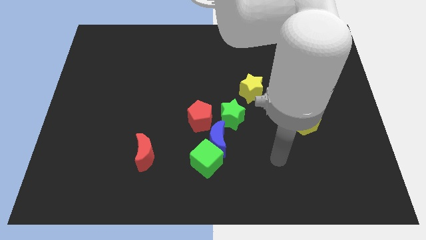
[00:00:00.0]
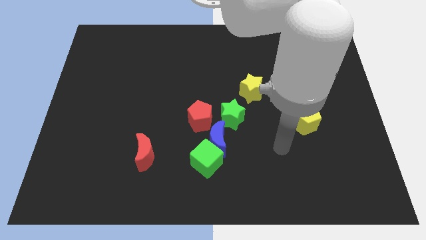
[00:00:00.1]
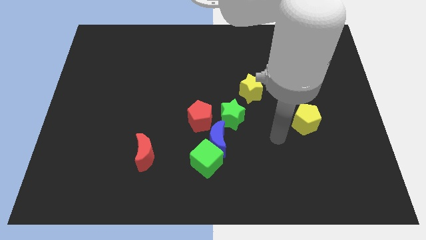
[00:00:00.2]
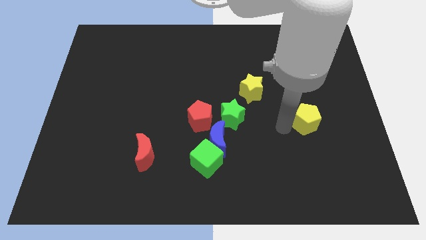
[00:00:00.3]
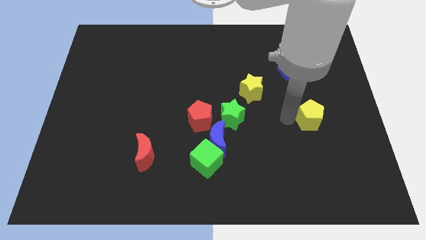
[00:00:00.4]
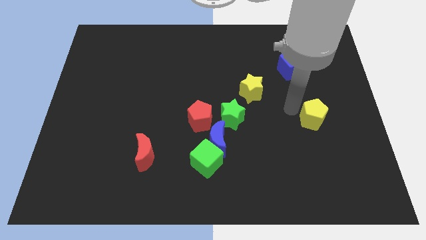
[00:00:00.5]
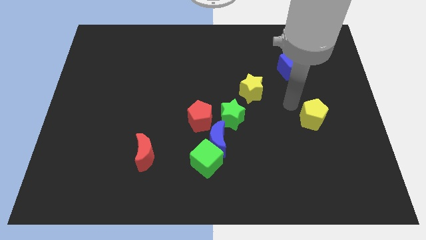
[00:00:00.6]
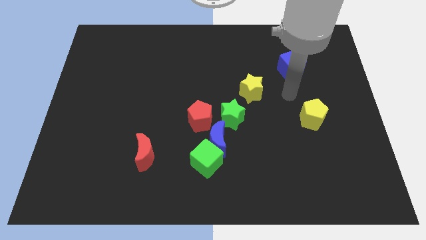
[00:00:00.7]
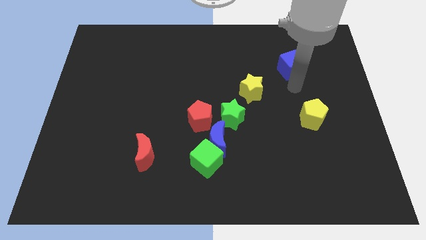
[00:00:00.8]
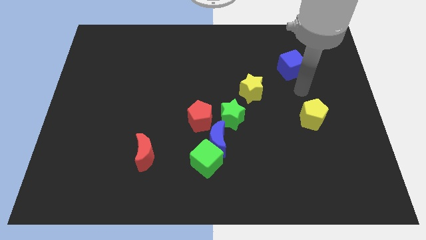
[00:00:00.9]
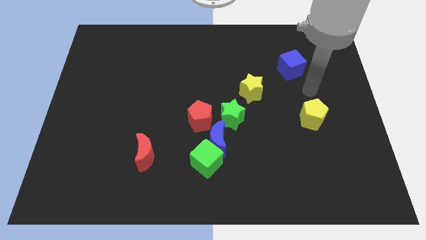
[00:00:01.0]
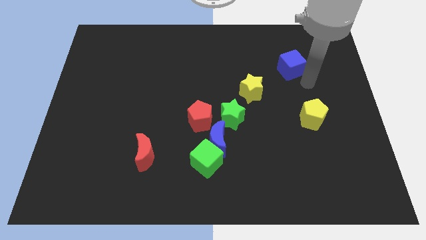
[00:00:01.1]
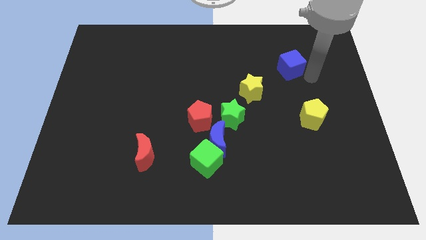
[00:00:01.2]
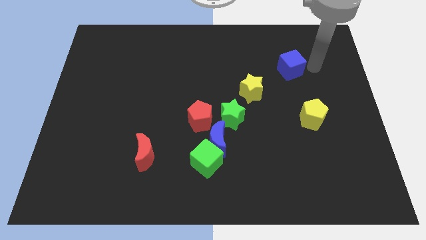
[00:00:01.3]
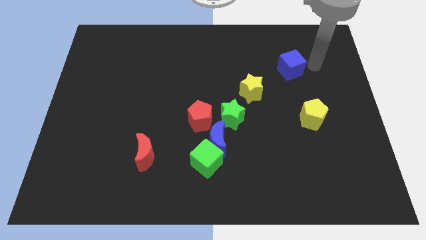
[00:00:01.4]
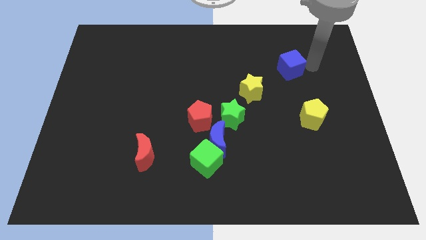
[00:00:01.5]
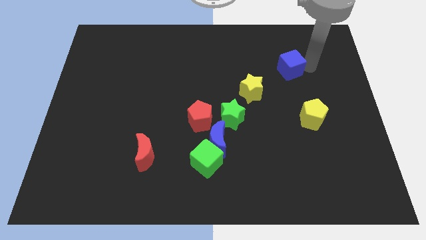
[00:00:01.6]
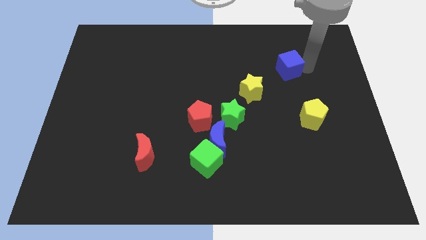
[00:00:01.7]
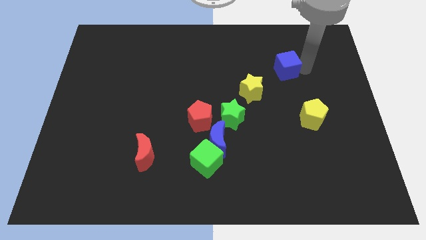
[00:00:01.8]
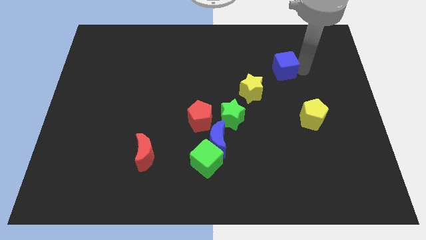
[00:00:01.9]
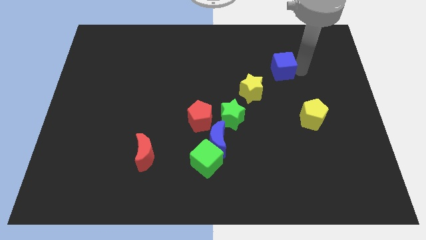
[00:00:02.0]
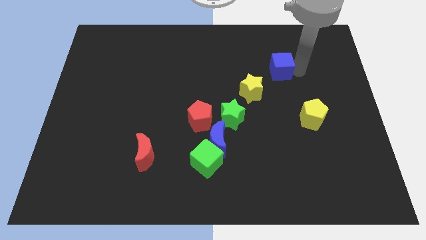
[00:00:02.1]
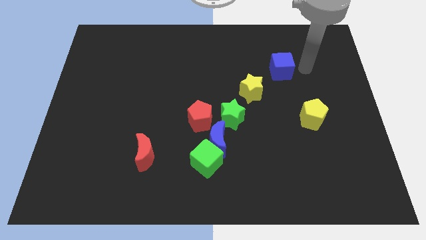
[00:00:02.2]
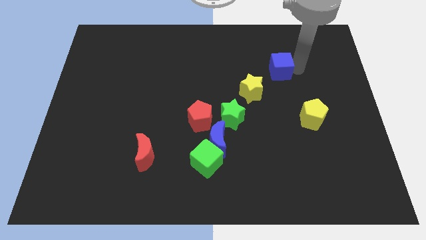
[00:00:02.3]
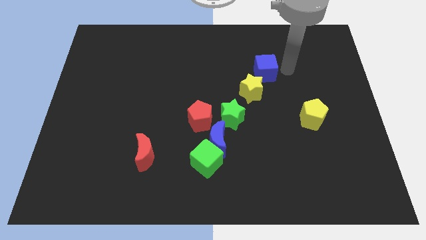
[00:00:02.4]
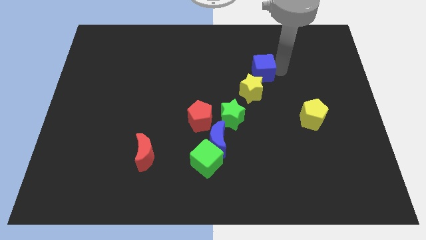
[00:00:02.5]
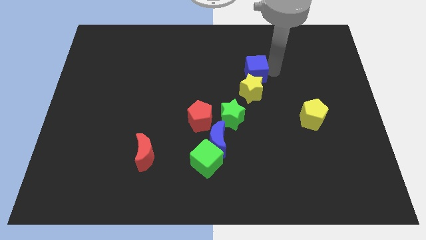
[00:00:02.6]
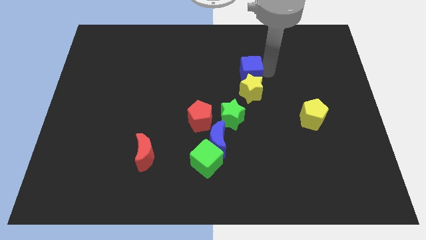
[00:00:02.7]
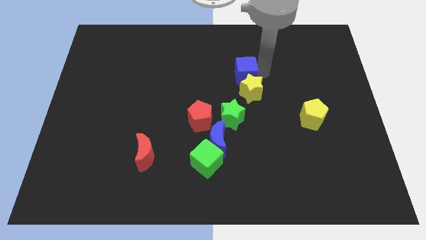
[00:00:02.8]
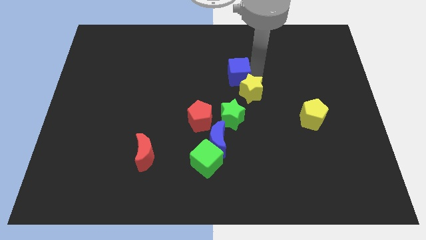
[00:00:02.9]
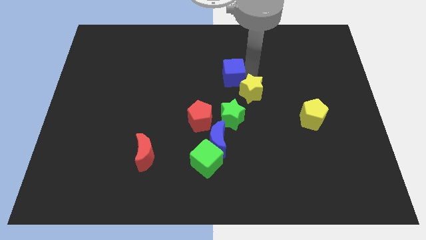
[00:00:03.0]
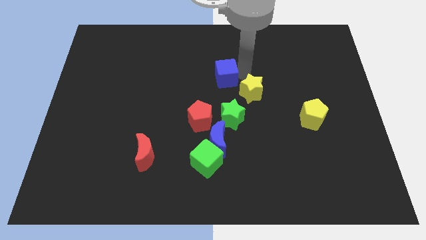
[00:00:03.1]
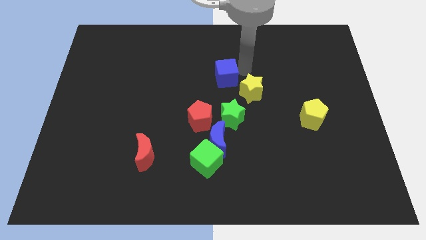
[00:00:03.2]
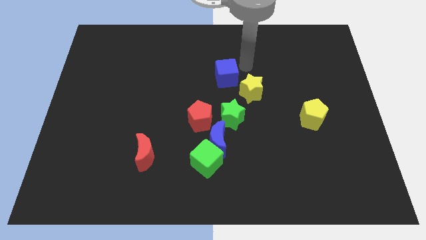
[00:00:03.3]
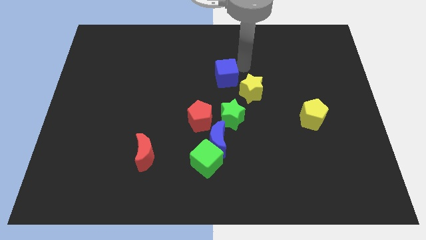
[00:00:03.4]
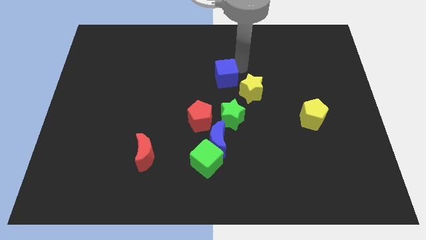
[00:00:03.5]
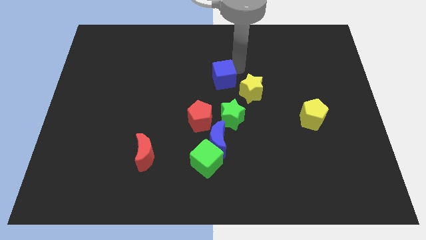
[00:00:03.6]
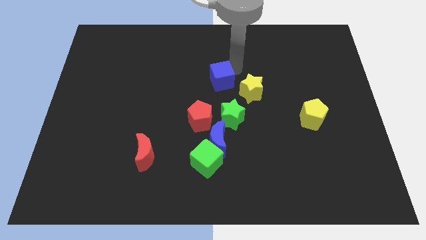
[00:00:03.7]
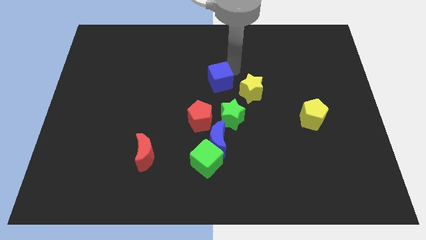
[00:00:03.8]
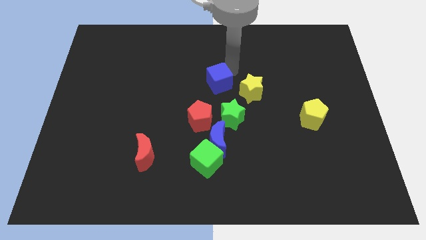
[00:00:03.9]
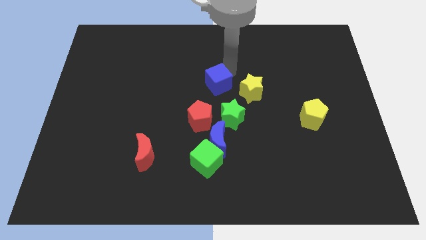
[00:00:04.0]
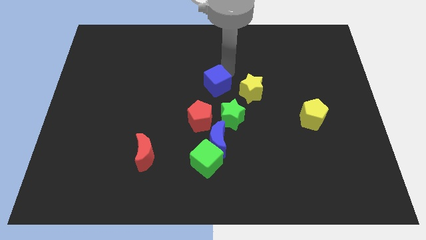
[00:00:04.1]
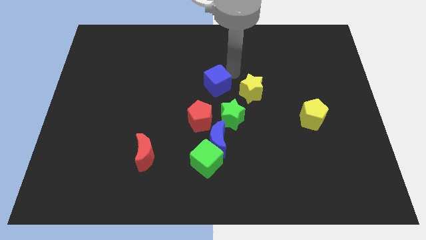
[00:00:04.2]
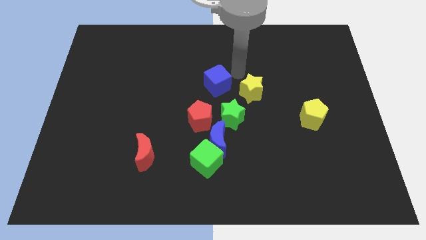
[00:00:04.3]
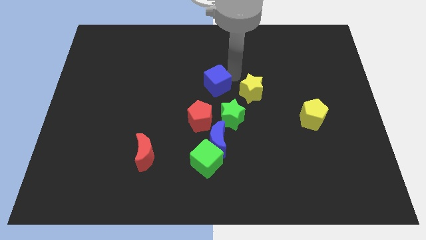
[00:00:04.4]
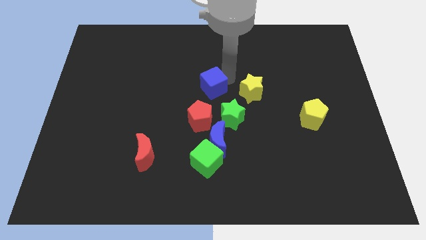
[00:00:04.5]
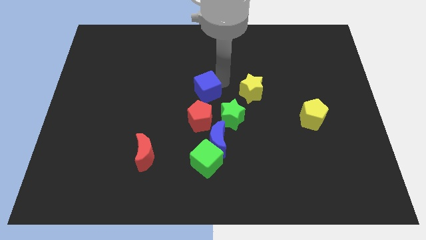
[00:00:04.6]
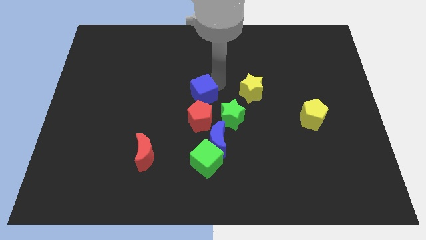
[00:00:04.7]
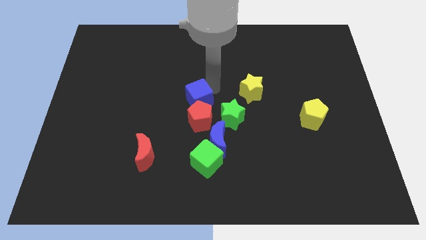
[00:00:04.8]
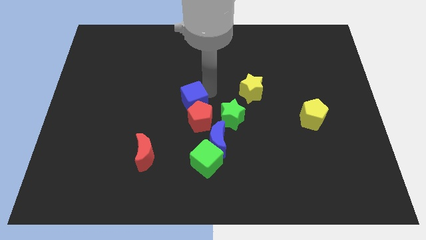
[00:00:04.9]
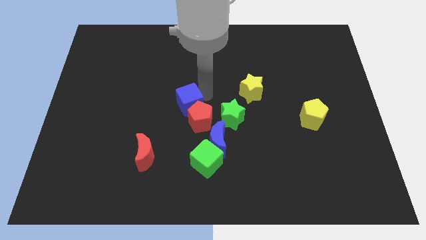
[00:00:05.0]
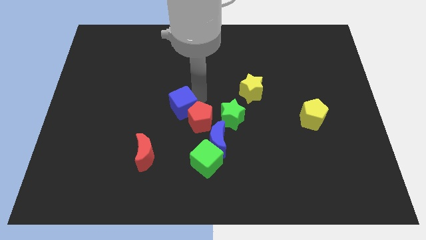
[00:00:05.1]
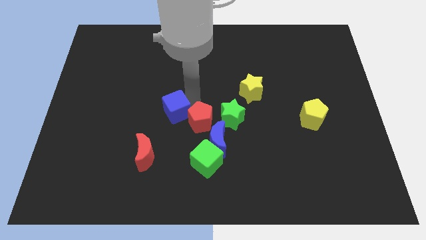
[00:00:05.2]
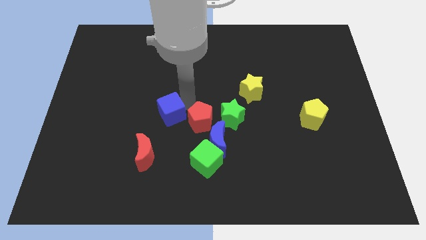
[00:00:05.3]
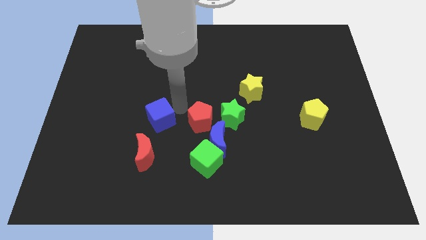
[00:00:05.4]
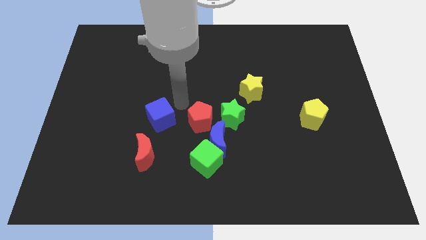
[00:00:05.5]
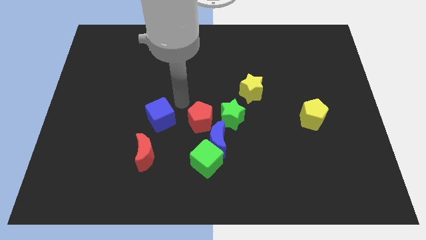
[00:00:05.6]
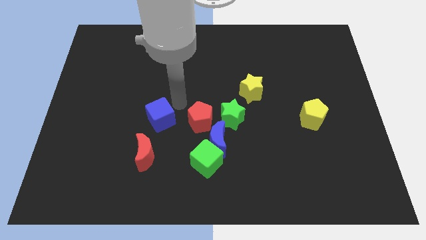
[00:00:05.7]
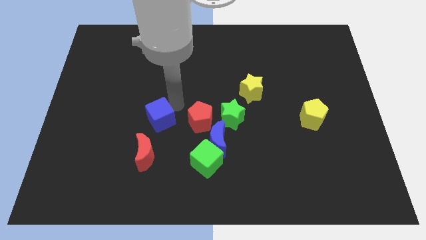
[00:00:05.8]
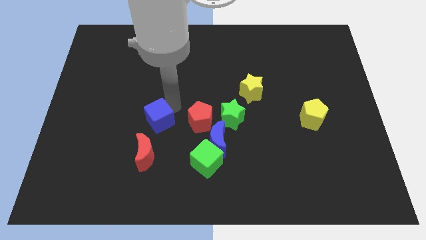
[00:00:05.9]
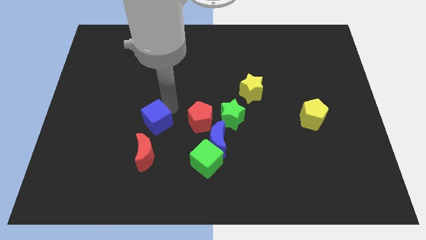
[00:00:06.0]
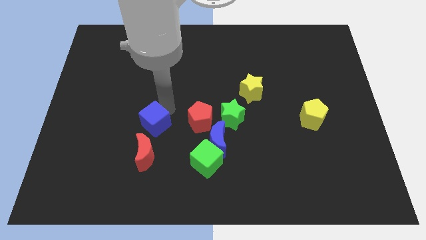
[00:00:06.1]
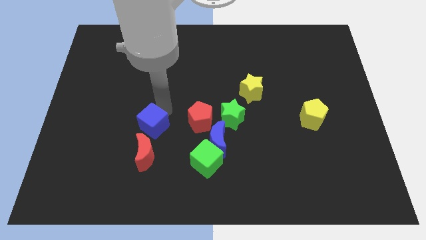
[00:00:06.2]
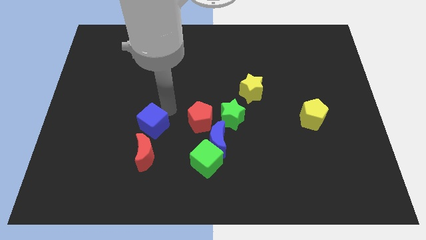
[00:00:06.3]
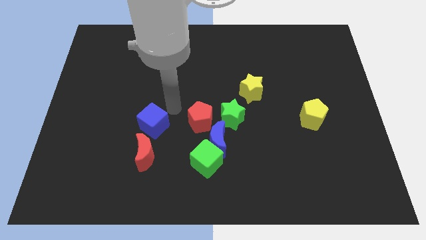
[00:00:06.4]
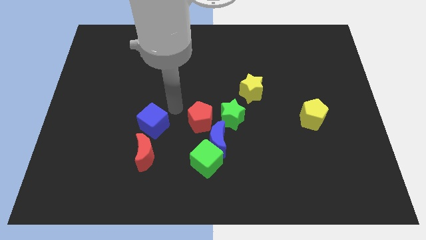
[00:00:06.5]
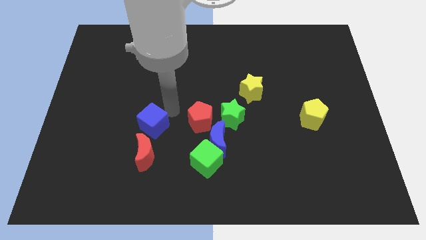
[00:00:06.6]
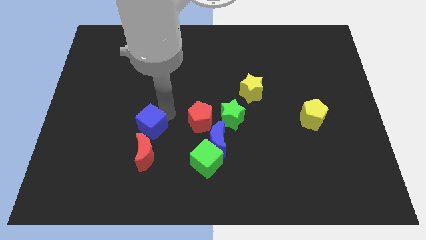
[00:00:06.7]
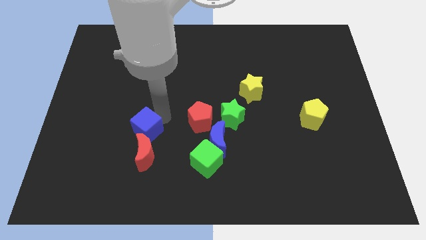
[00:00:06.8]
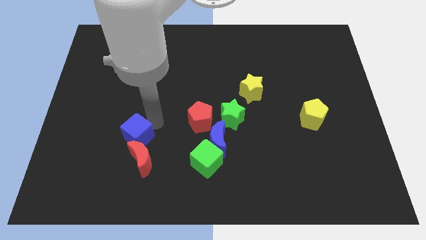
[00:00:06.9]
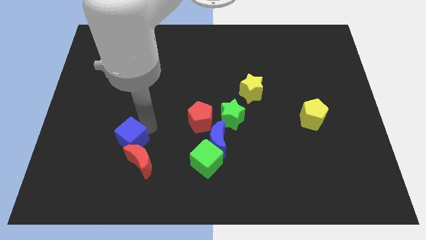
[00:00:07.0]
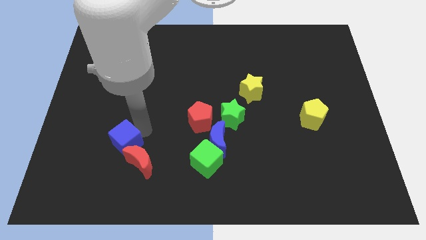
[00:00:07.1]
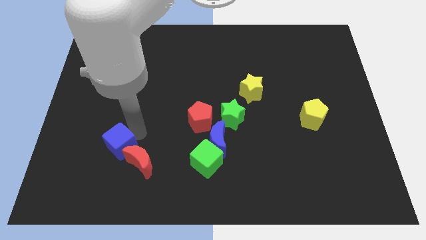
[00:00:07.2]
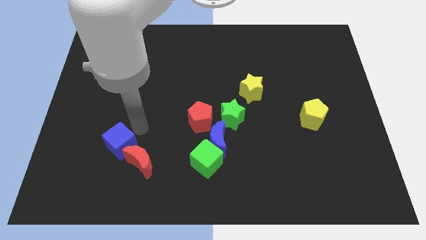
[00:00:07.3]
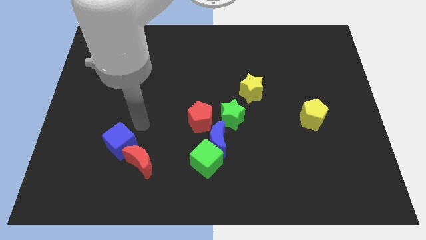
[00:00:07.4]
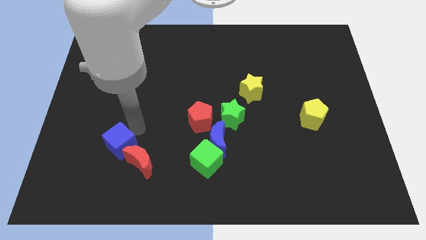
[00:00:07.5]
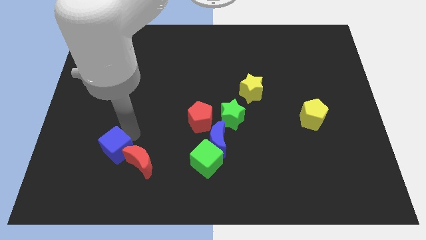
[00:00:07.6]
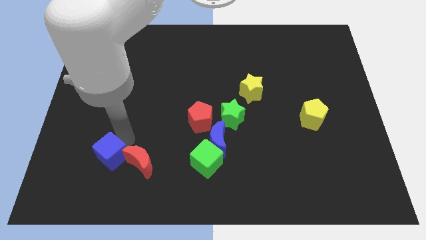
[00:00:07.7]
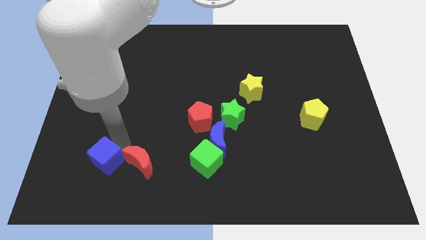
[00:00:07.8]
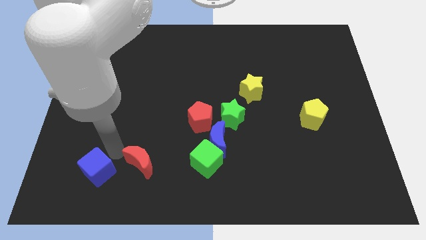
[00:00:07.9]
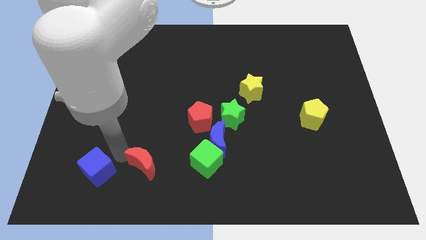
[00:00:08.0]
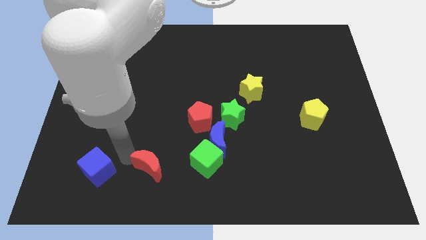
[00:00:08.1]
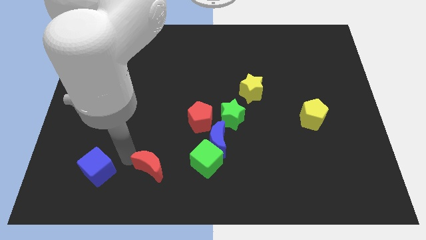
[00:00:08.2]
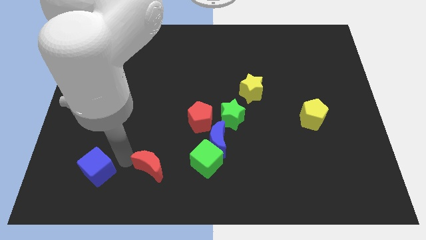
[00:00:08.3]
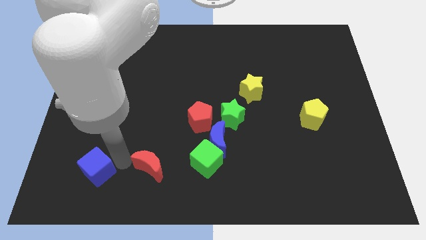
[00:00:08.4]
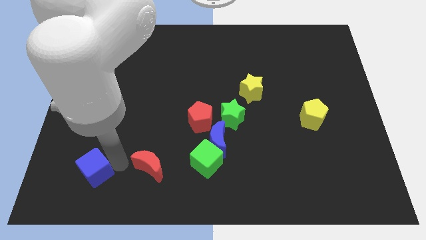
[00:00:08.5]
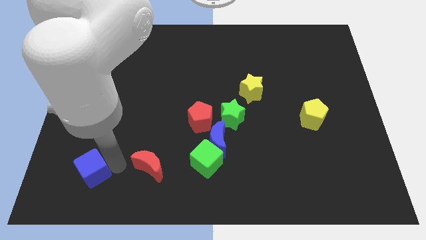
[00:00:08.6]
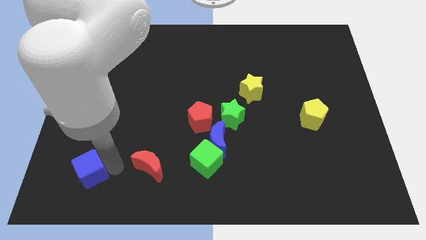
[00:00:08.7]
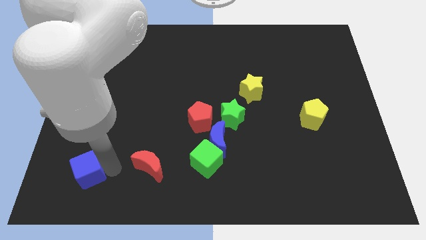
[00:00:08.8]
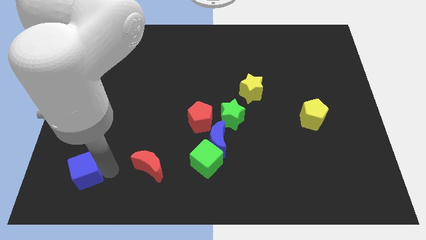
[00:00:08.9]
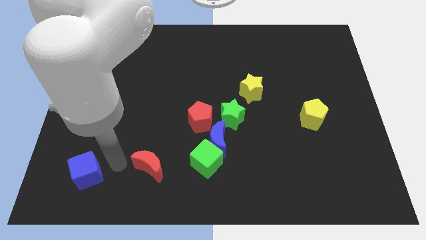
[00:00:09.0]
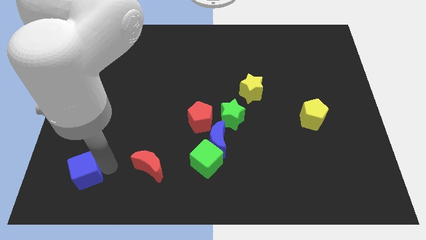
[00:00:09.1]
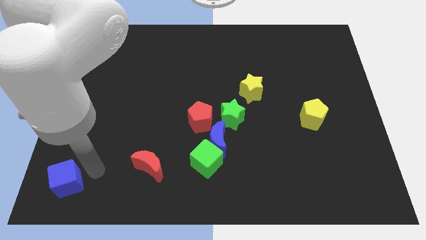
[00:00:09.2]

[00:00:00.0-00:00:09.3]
push the blue cube to the lower left corner
